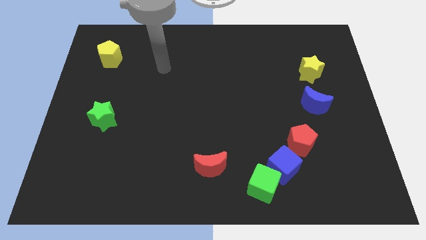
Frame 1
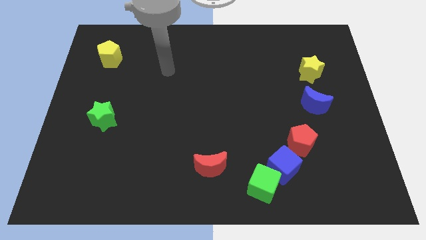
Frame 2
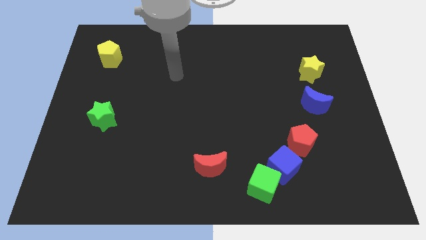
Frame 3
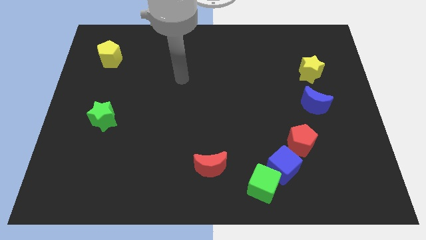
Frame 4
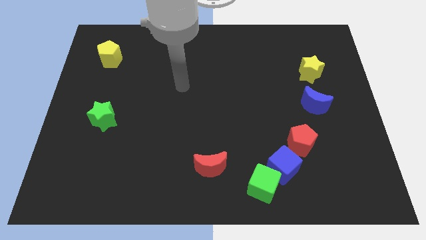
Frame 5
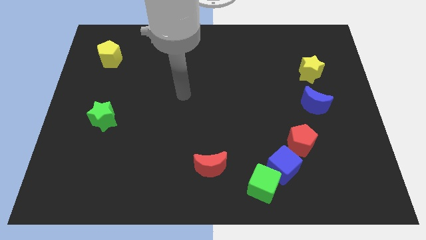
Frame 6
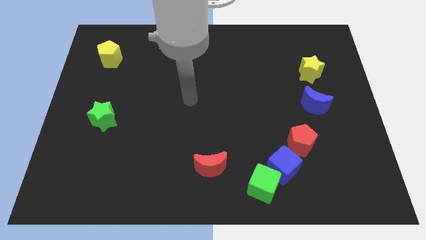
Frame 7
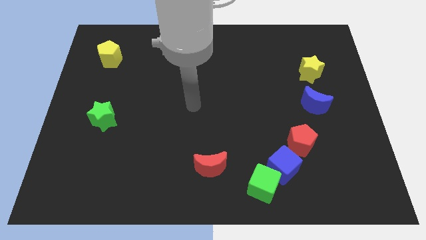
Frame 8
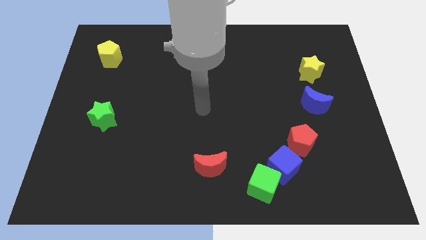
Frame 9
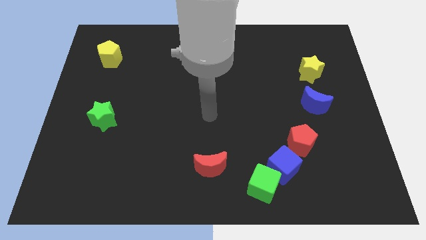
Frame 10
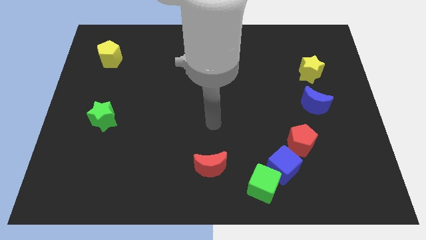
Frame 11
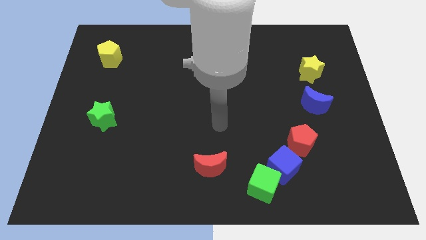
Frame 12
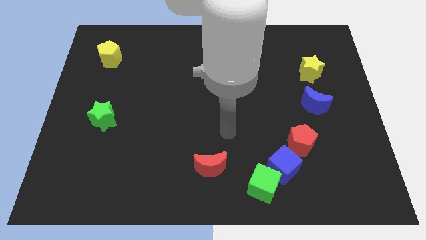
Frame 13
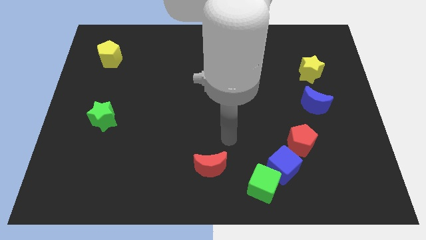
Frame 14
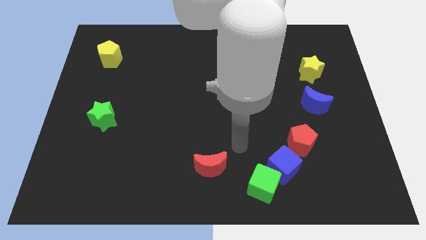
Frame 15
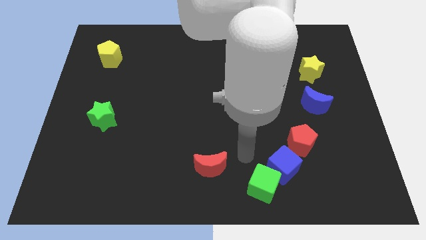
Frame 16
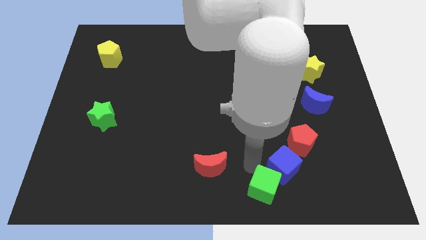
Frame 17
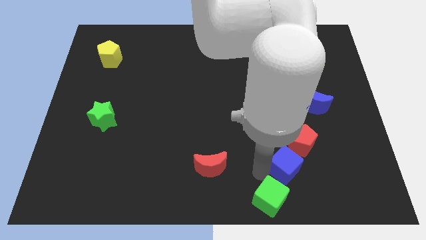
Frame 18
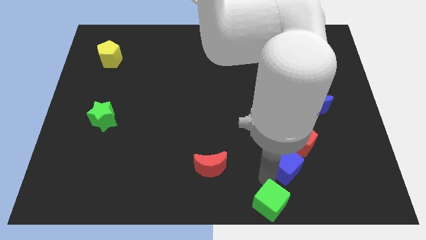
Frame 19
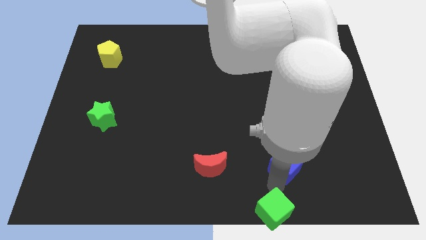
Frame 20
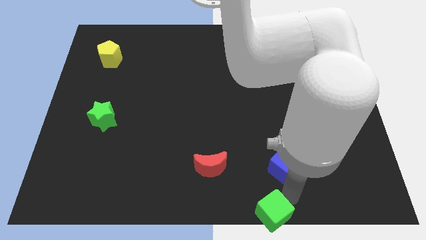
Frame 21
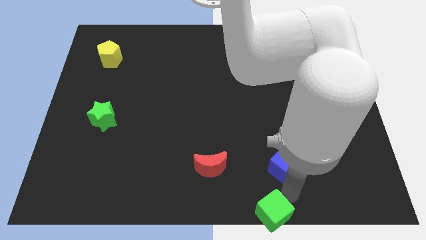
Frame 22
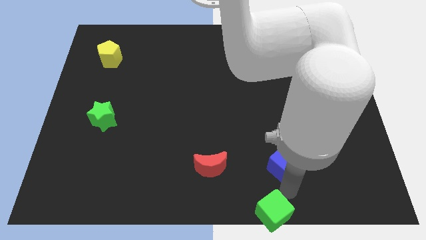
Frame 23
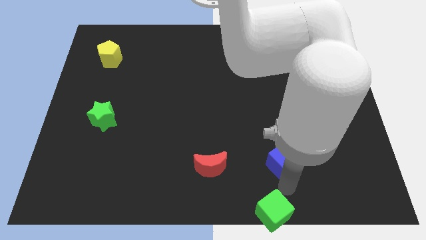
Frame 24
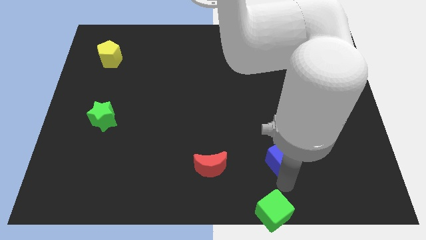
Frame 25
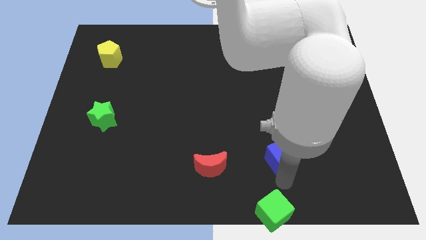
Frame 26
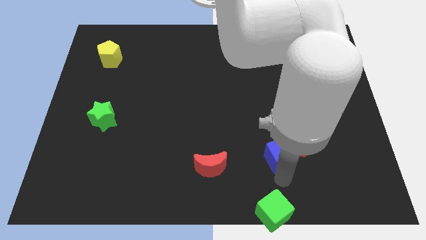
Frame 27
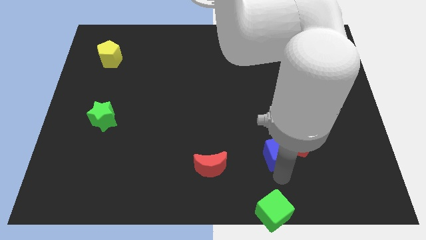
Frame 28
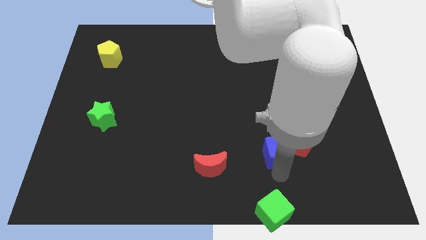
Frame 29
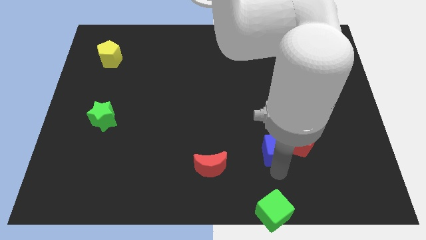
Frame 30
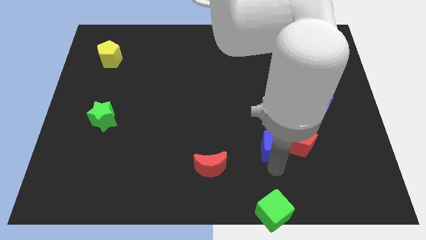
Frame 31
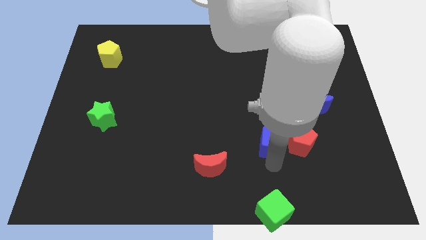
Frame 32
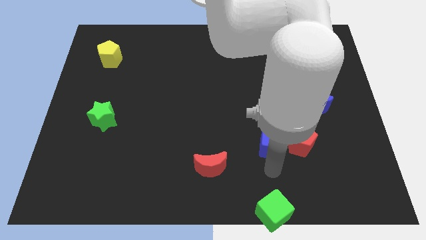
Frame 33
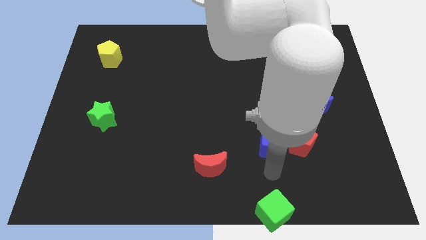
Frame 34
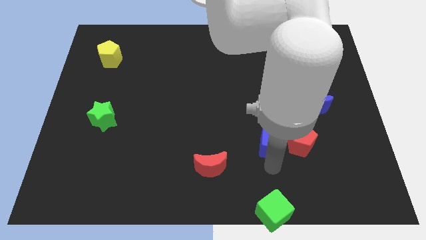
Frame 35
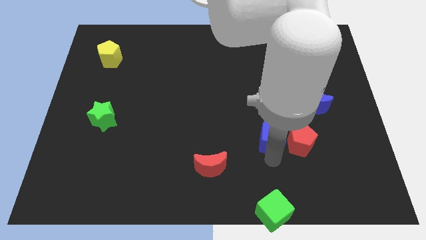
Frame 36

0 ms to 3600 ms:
slide the blue cube slightly up

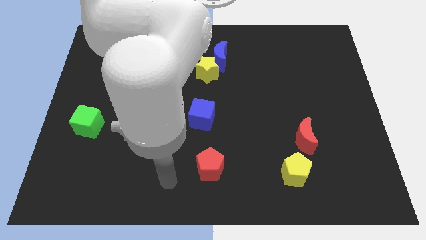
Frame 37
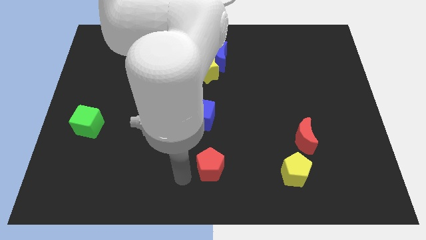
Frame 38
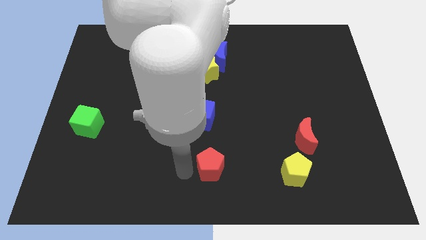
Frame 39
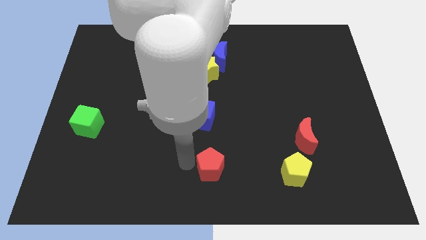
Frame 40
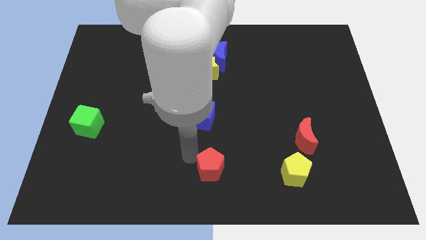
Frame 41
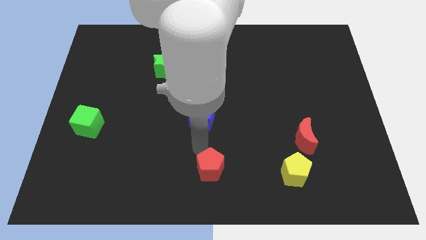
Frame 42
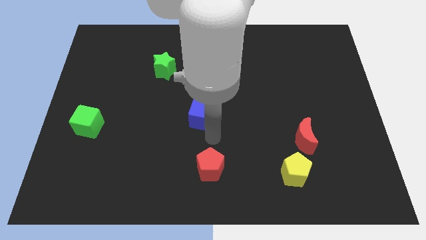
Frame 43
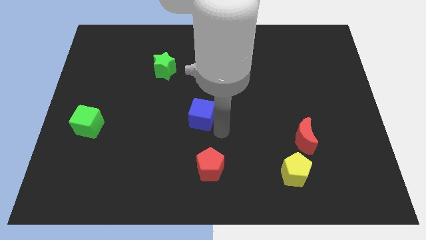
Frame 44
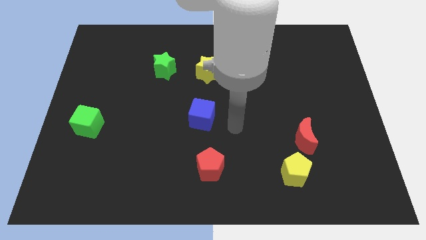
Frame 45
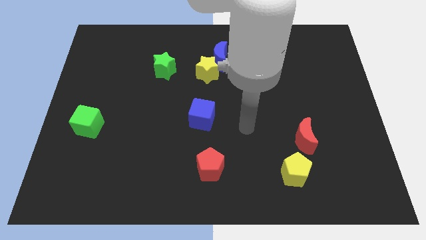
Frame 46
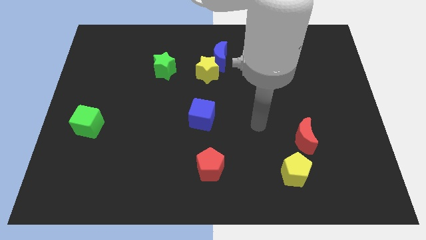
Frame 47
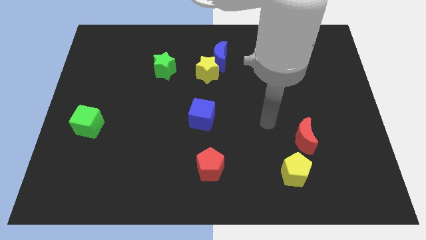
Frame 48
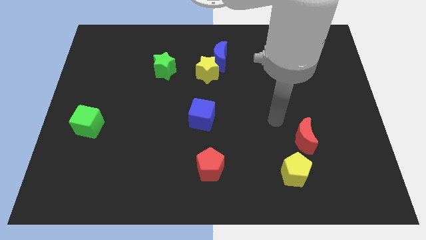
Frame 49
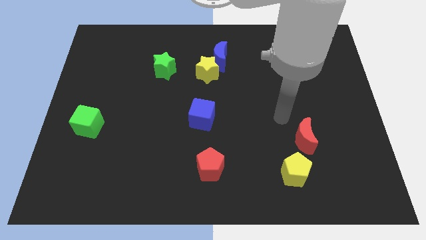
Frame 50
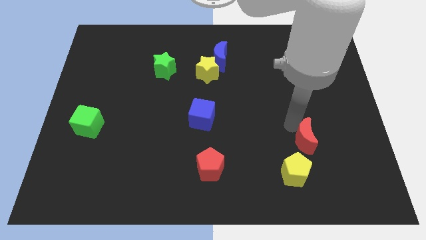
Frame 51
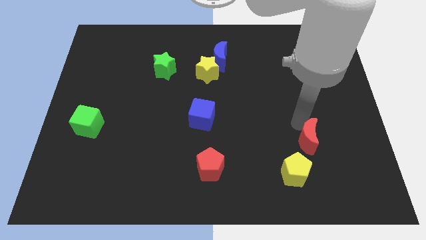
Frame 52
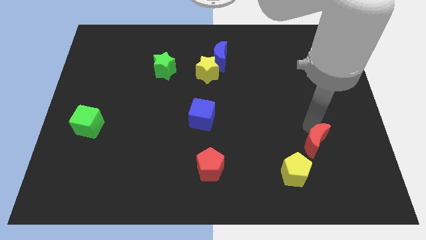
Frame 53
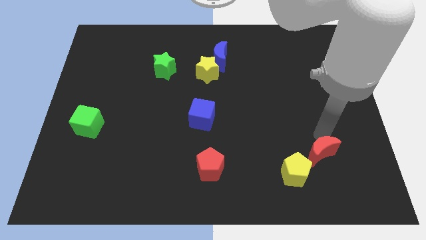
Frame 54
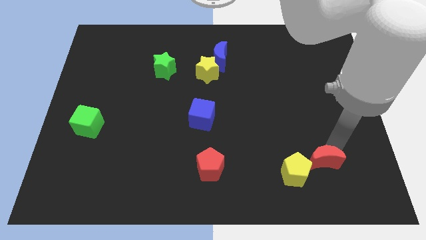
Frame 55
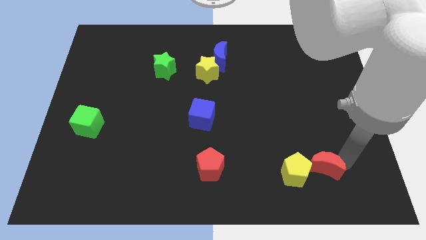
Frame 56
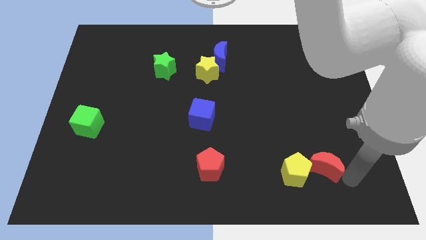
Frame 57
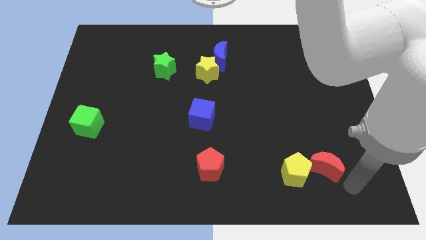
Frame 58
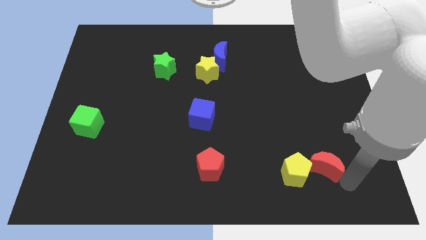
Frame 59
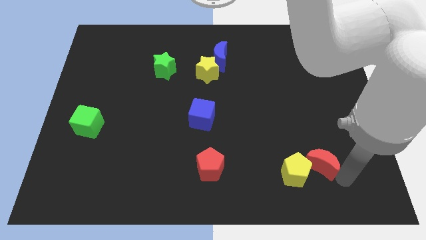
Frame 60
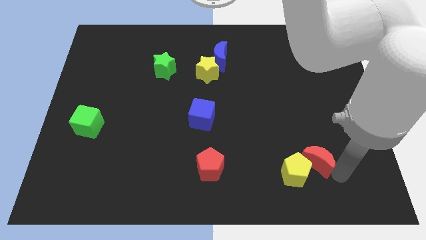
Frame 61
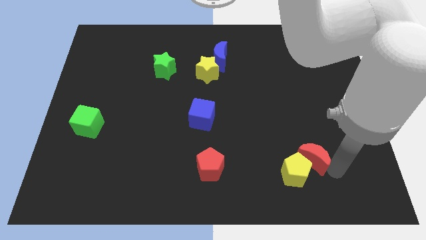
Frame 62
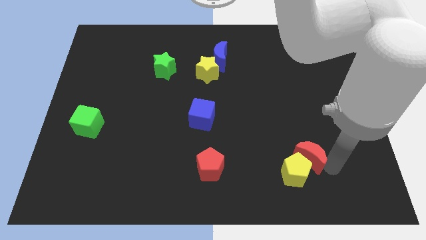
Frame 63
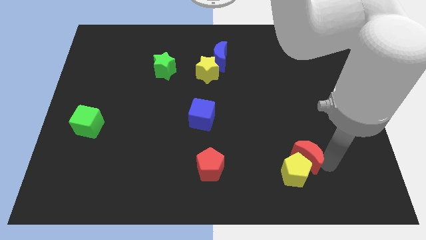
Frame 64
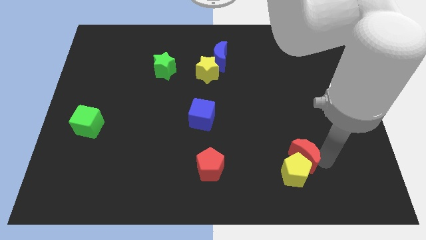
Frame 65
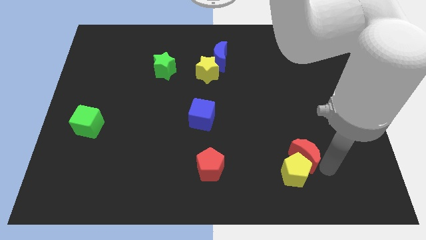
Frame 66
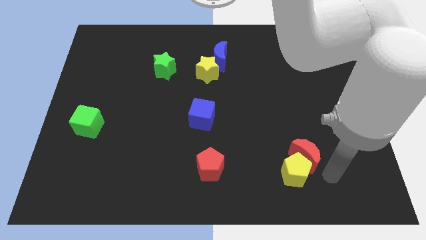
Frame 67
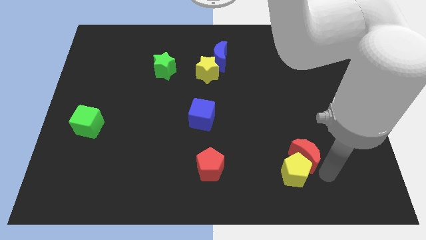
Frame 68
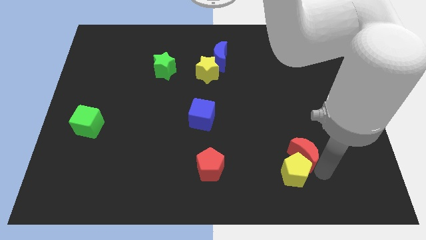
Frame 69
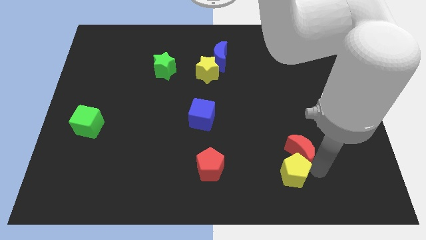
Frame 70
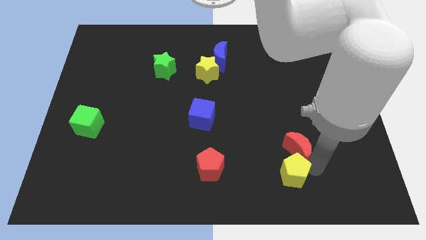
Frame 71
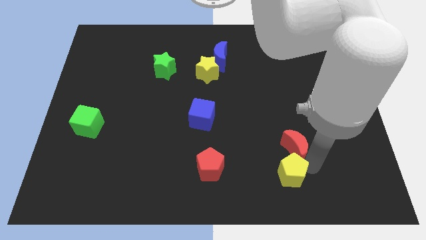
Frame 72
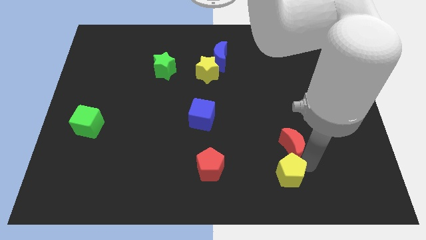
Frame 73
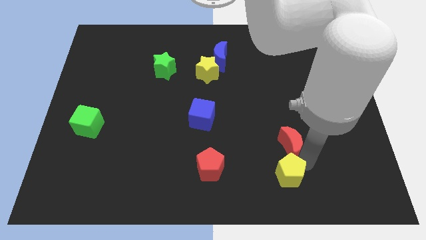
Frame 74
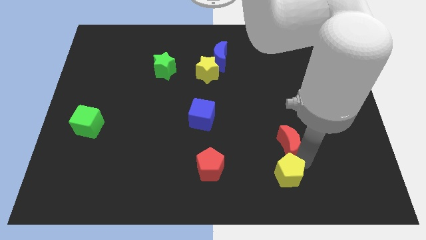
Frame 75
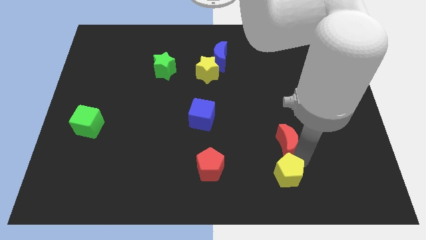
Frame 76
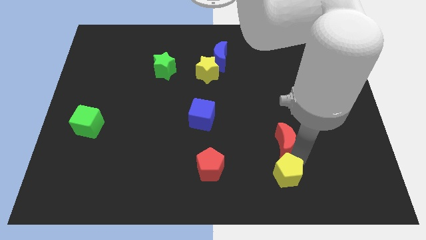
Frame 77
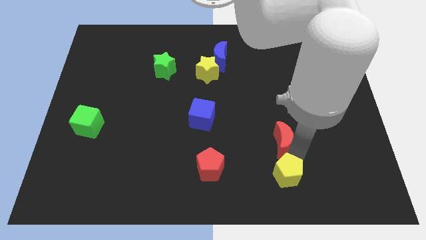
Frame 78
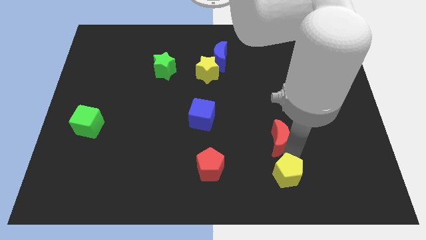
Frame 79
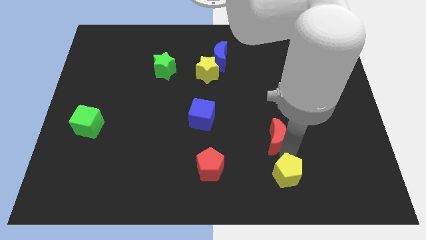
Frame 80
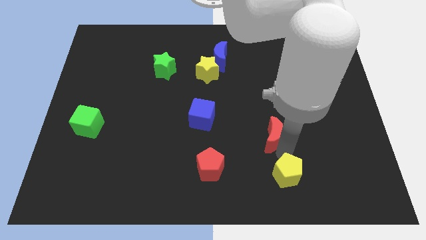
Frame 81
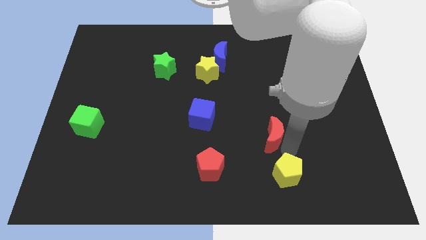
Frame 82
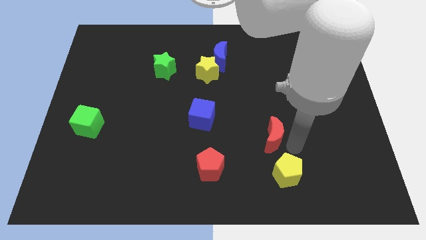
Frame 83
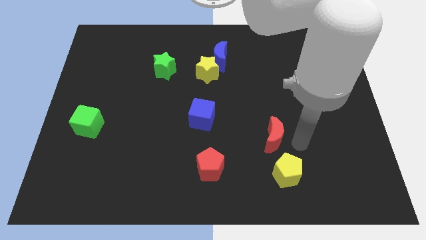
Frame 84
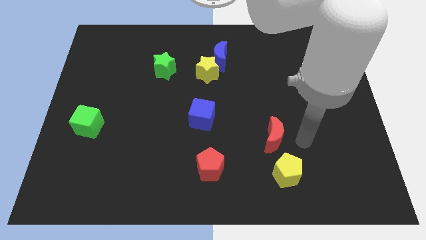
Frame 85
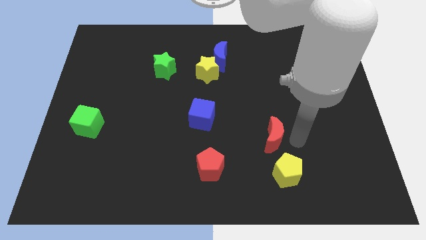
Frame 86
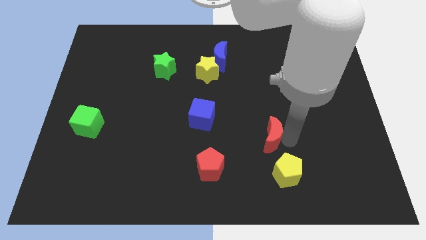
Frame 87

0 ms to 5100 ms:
push the red moon a little bit left
